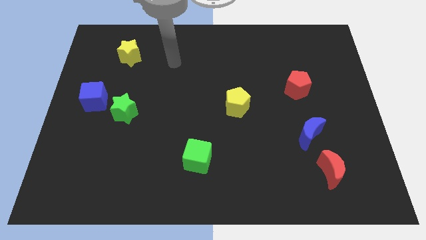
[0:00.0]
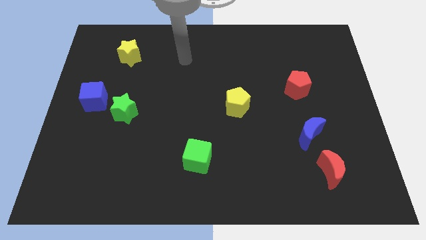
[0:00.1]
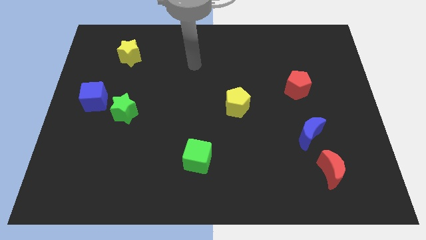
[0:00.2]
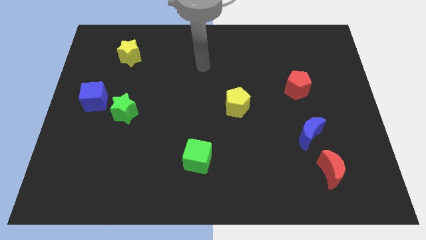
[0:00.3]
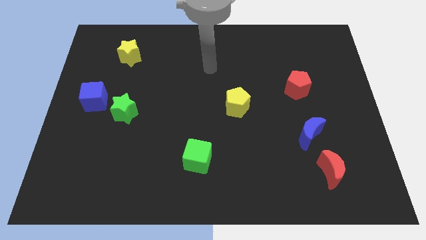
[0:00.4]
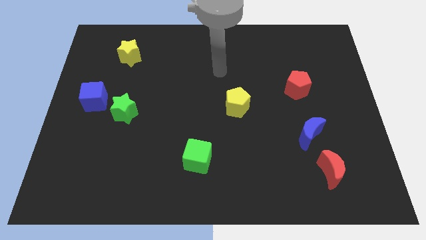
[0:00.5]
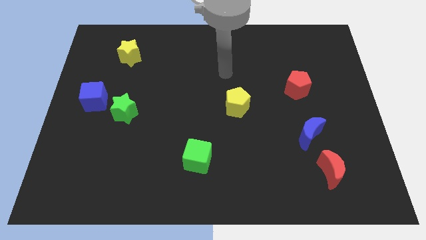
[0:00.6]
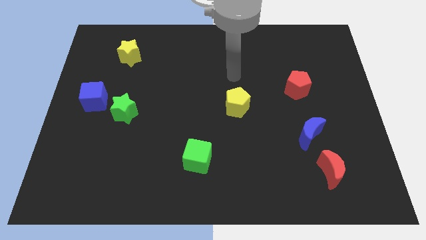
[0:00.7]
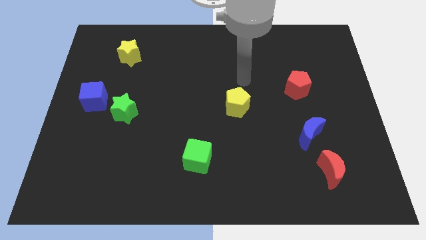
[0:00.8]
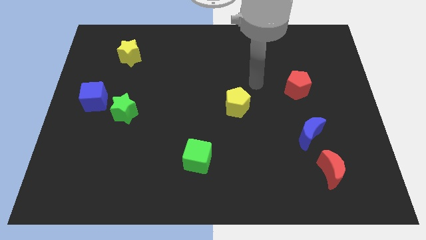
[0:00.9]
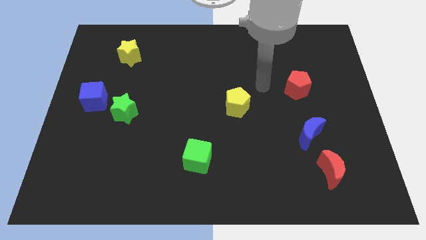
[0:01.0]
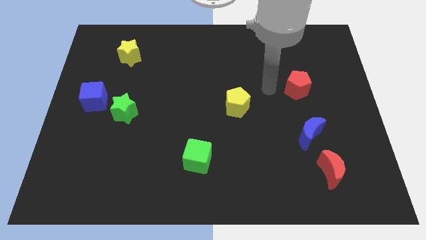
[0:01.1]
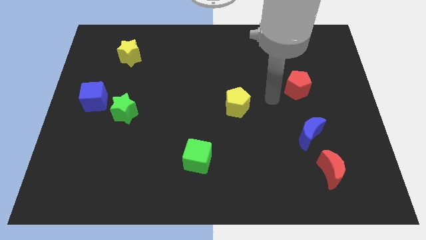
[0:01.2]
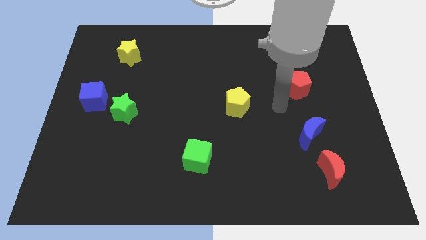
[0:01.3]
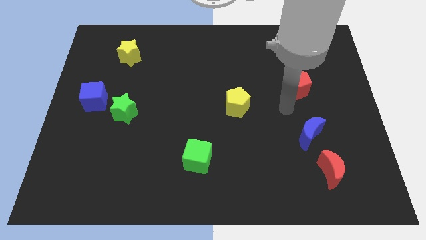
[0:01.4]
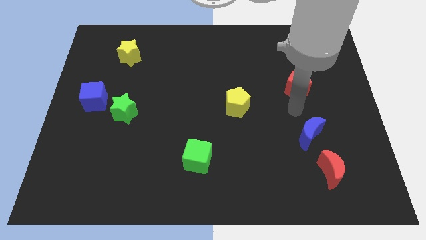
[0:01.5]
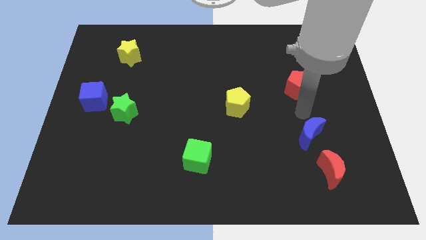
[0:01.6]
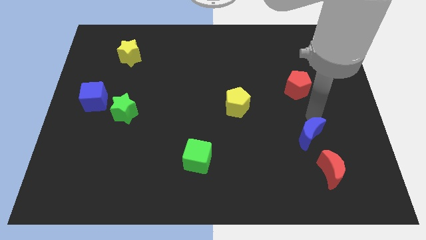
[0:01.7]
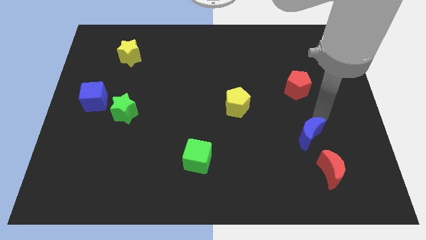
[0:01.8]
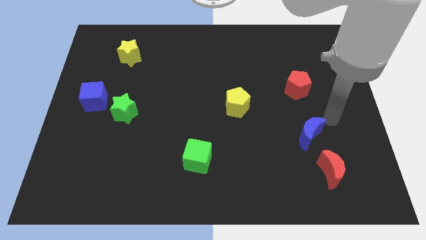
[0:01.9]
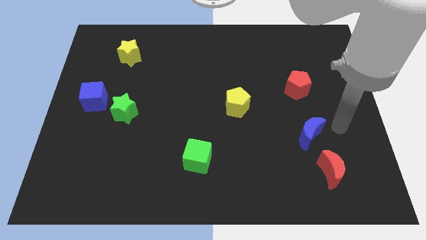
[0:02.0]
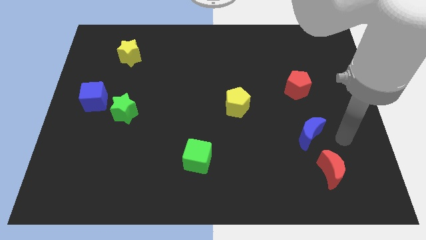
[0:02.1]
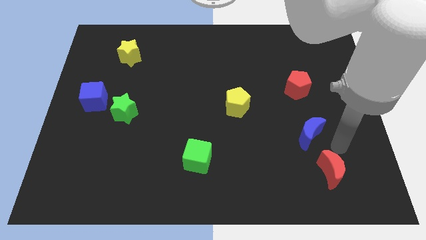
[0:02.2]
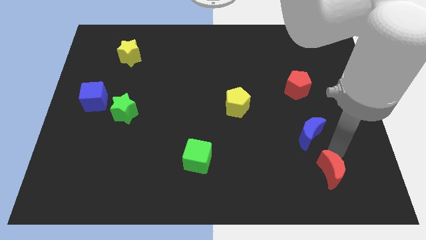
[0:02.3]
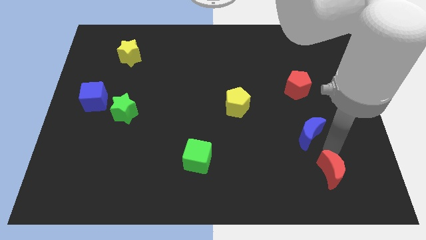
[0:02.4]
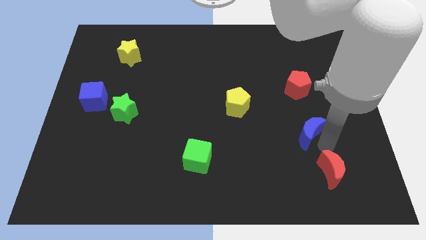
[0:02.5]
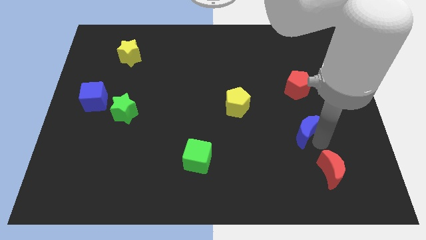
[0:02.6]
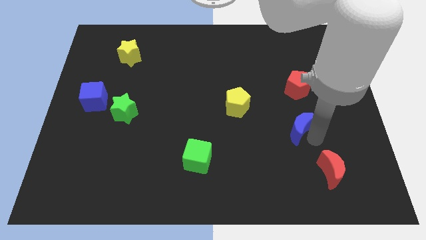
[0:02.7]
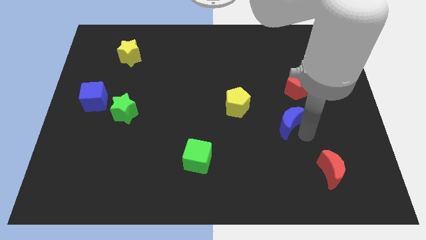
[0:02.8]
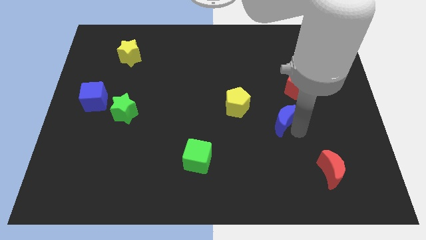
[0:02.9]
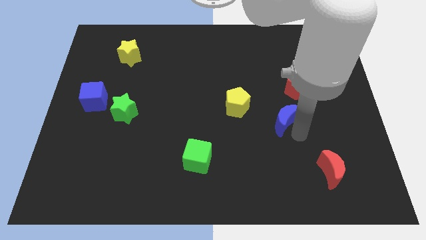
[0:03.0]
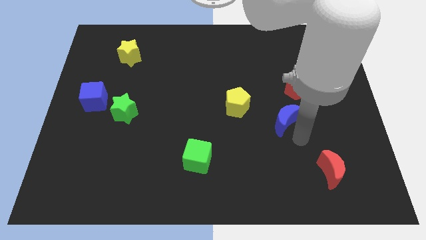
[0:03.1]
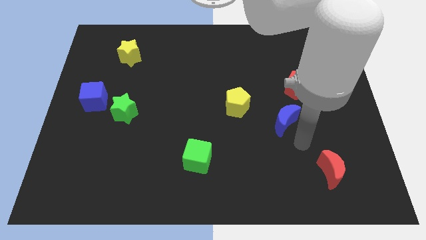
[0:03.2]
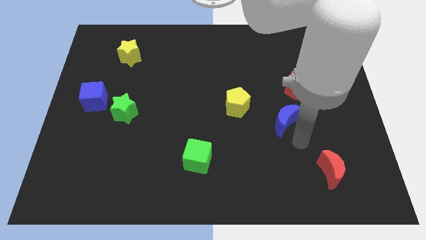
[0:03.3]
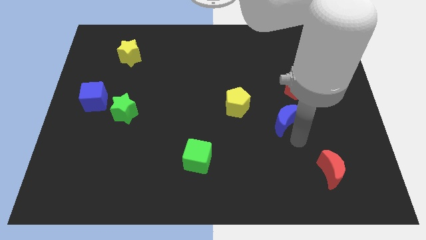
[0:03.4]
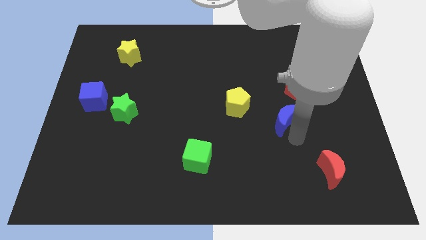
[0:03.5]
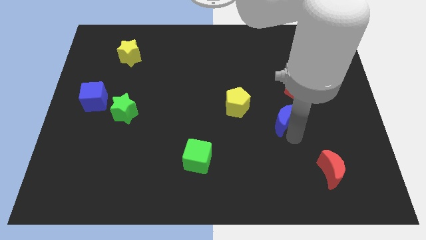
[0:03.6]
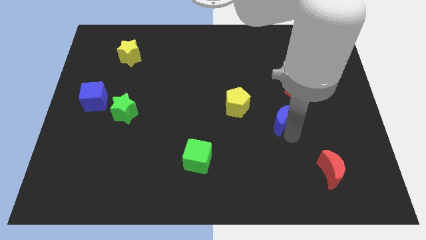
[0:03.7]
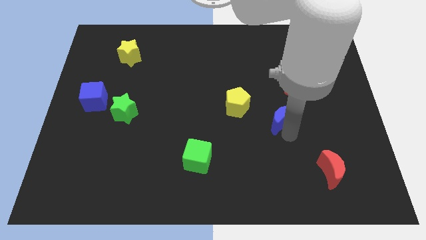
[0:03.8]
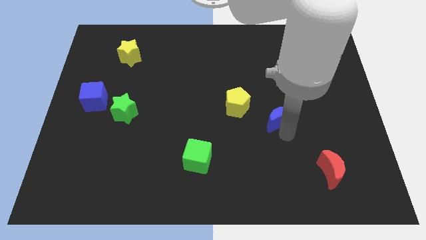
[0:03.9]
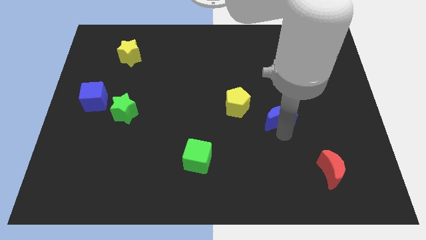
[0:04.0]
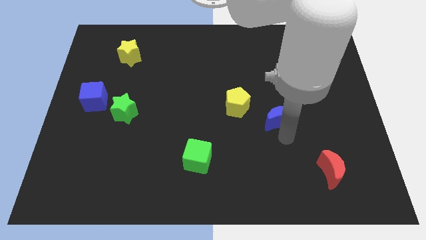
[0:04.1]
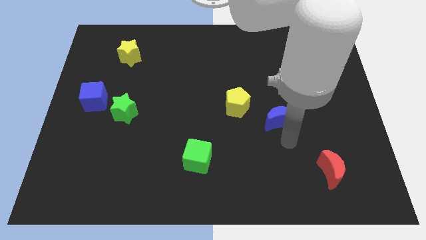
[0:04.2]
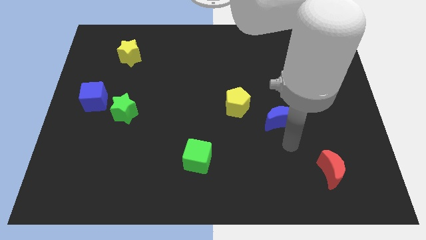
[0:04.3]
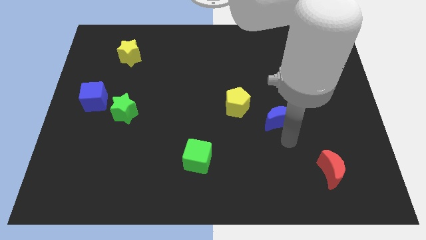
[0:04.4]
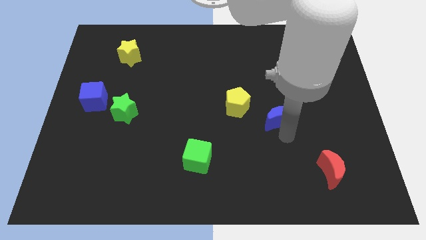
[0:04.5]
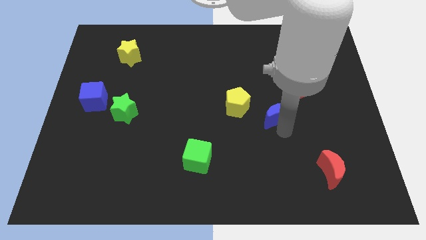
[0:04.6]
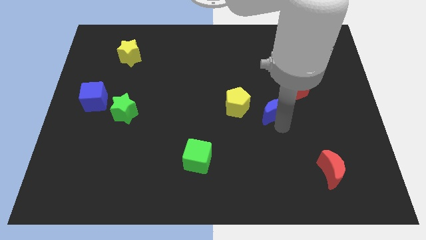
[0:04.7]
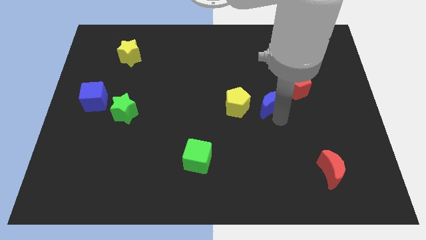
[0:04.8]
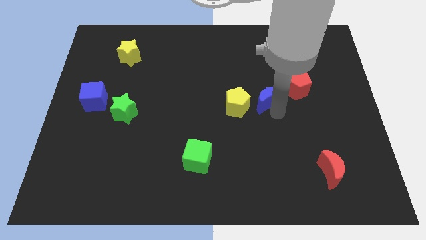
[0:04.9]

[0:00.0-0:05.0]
move the blue moon to the left of the red pentagon

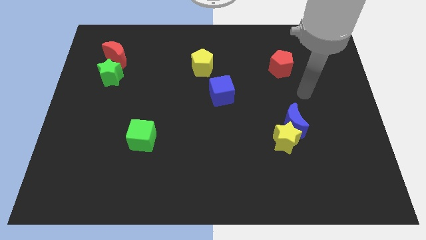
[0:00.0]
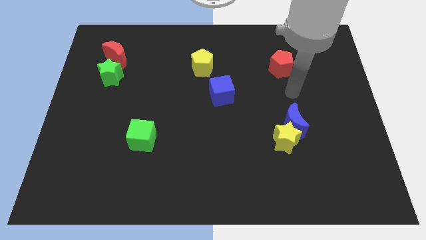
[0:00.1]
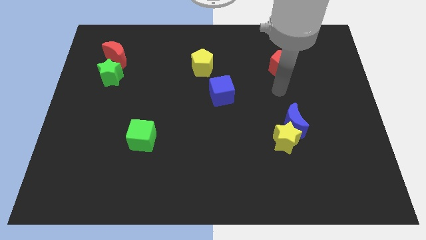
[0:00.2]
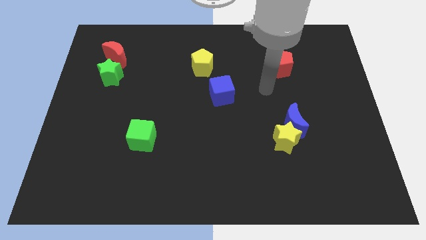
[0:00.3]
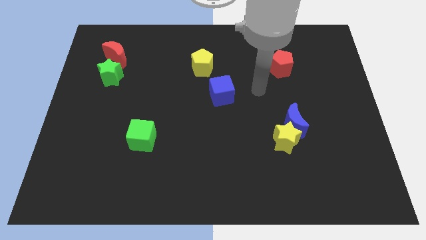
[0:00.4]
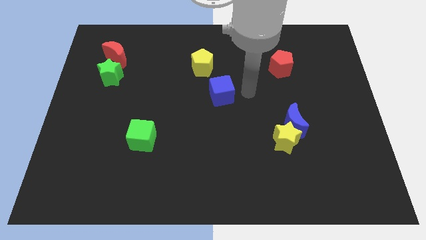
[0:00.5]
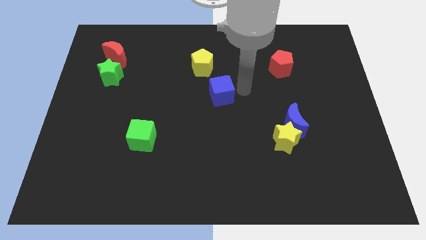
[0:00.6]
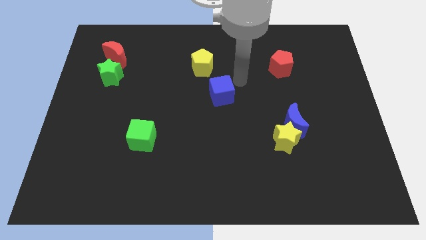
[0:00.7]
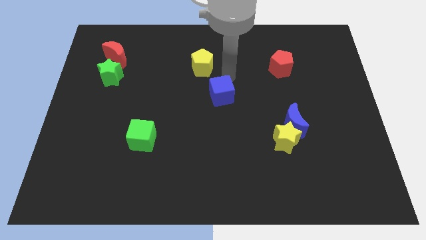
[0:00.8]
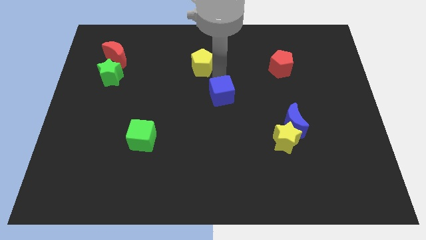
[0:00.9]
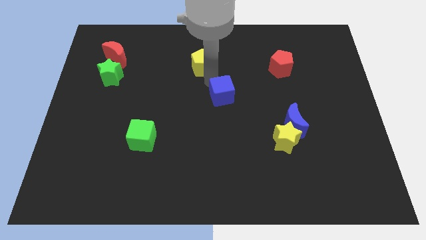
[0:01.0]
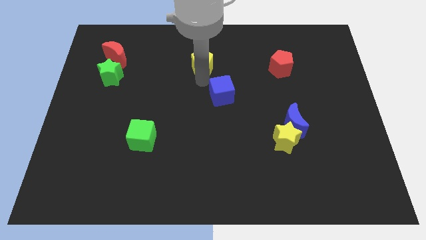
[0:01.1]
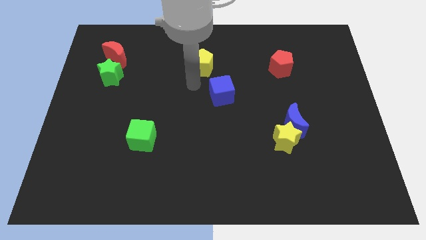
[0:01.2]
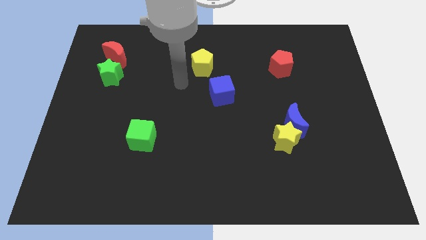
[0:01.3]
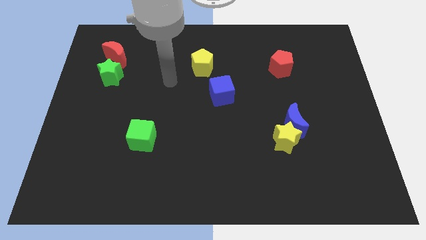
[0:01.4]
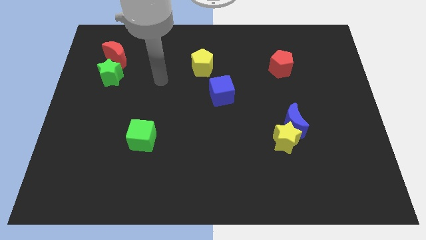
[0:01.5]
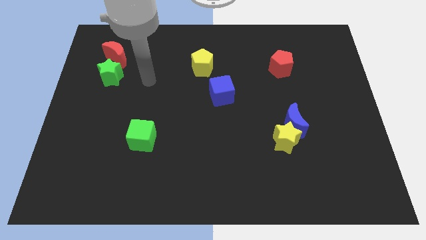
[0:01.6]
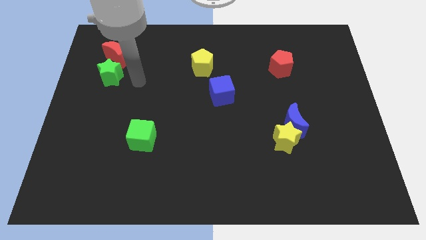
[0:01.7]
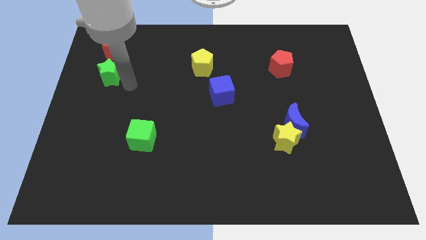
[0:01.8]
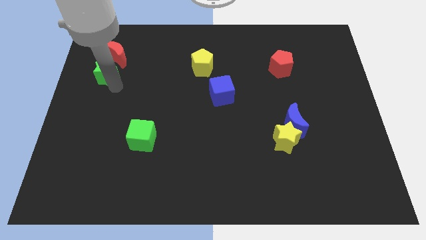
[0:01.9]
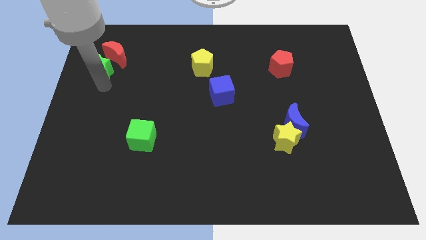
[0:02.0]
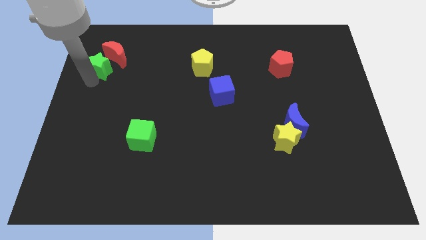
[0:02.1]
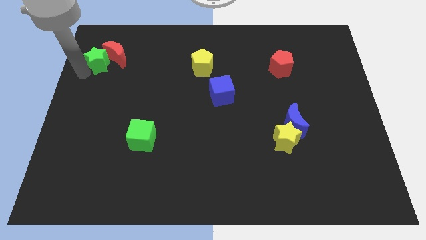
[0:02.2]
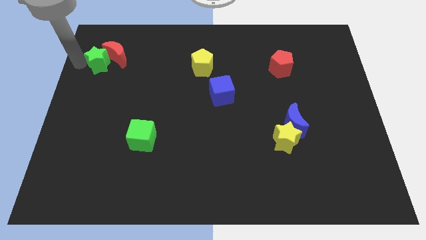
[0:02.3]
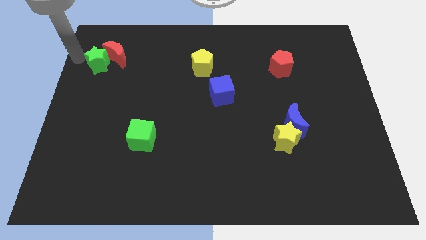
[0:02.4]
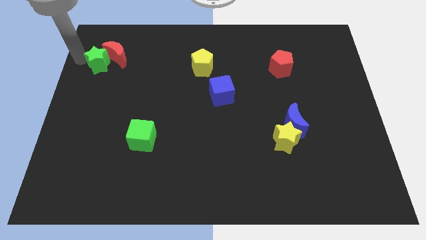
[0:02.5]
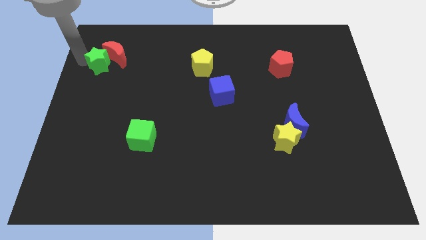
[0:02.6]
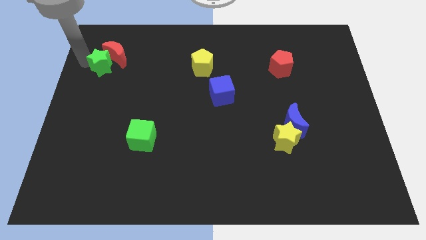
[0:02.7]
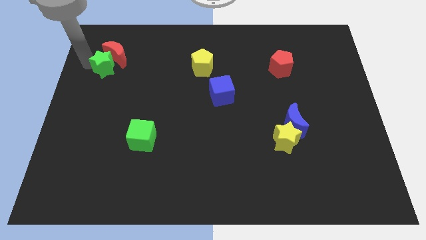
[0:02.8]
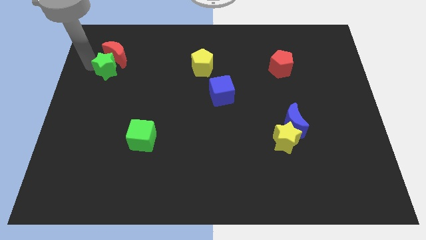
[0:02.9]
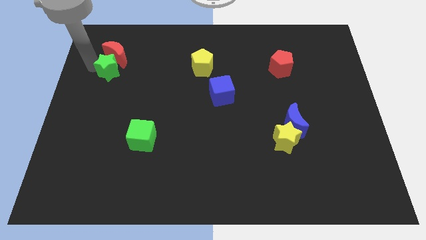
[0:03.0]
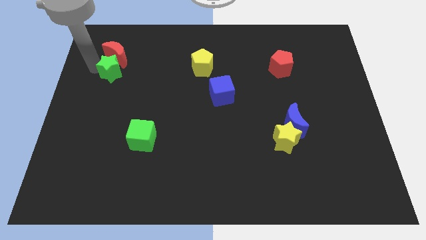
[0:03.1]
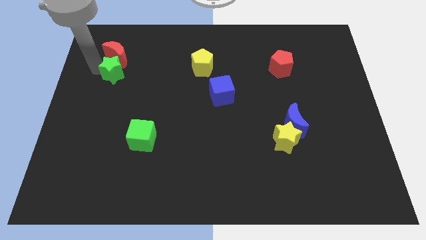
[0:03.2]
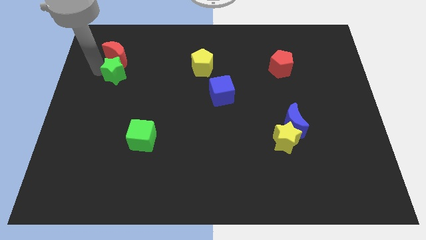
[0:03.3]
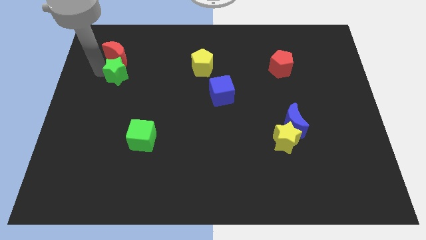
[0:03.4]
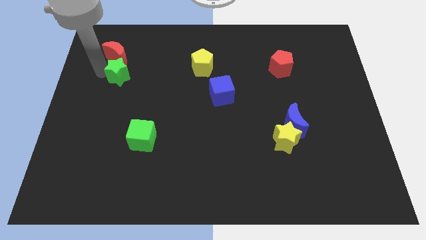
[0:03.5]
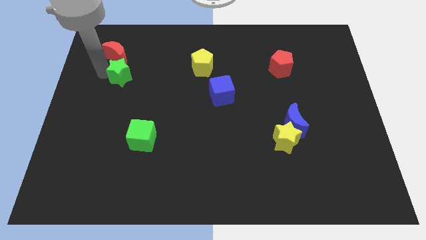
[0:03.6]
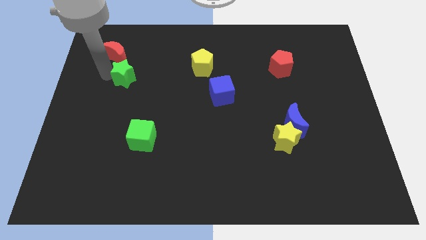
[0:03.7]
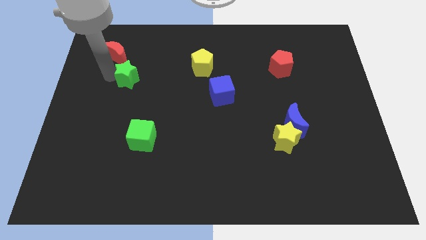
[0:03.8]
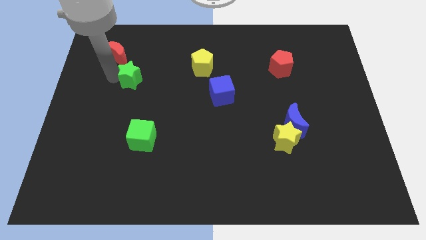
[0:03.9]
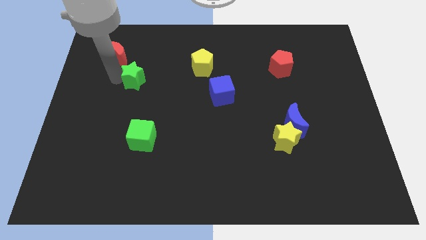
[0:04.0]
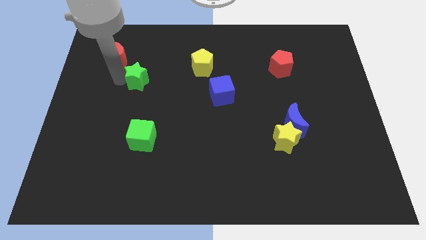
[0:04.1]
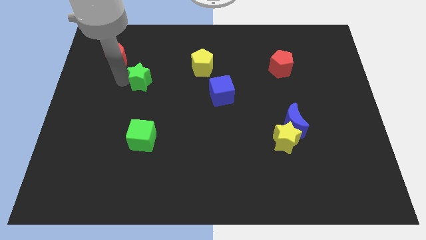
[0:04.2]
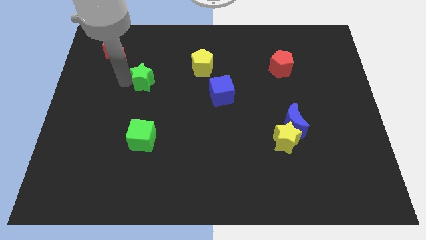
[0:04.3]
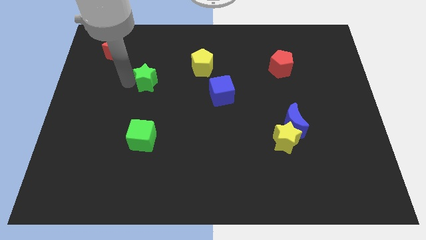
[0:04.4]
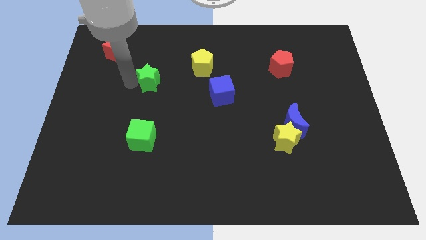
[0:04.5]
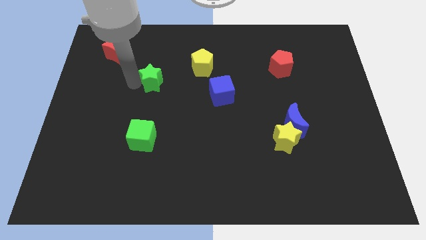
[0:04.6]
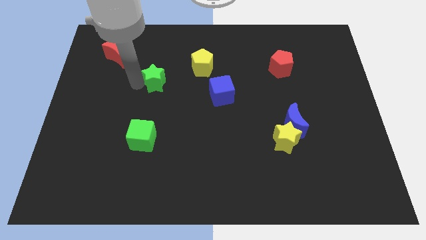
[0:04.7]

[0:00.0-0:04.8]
move the green star to the left side of the yellow pentagon
